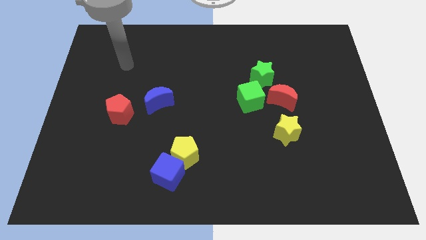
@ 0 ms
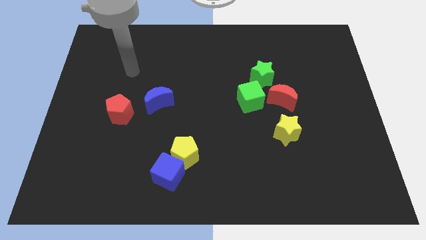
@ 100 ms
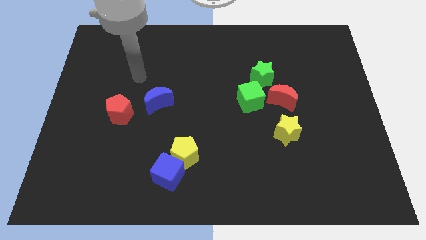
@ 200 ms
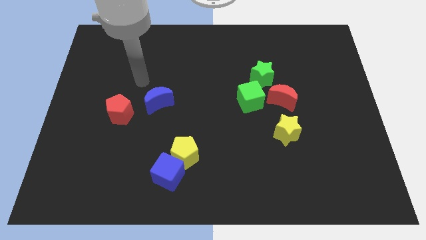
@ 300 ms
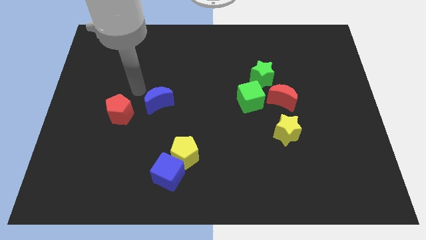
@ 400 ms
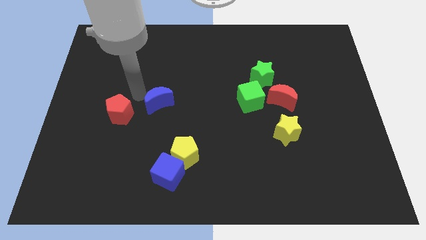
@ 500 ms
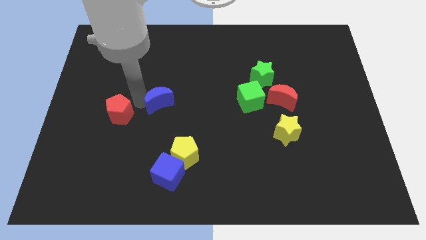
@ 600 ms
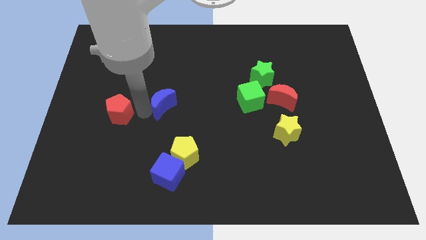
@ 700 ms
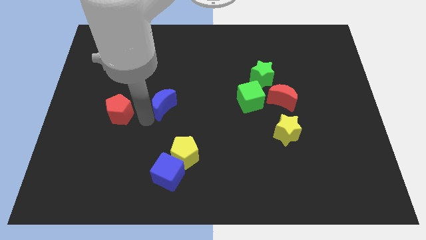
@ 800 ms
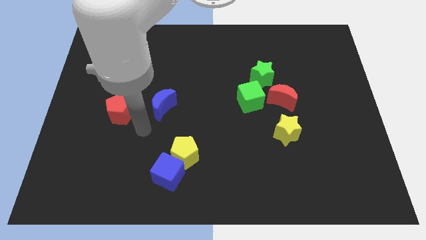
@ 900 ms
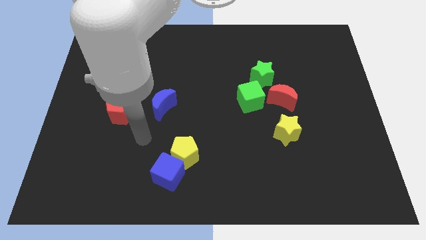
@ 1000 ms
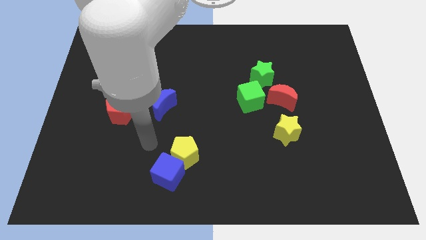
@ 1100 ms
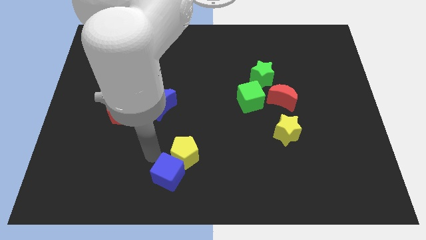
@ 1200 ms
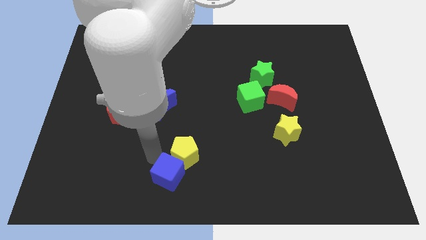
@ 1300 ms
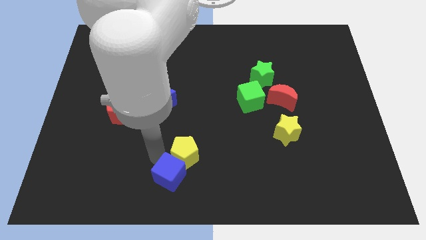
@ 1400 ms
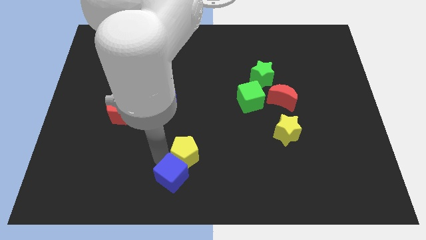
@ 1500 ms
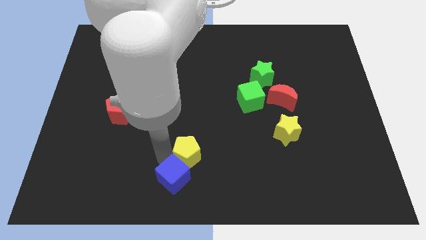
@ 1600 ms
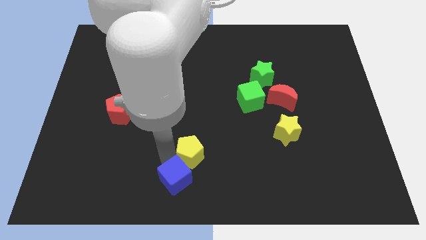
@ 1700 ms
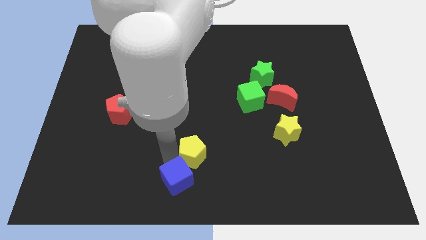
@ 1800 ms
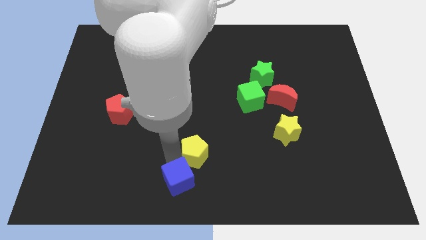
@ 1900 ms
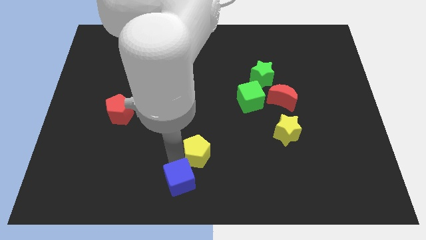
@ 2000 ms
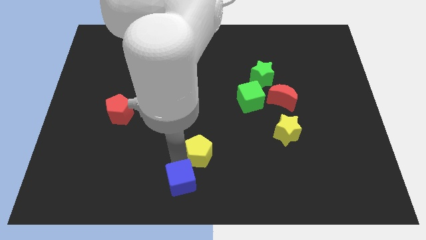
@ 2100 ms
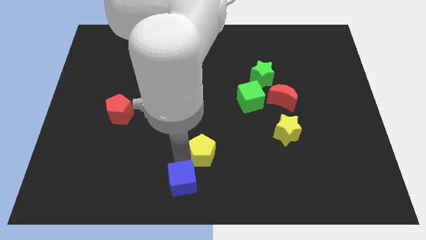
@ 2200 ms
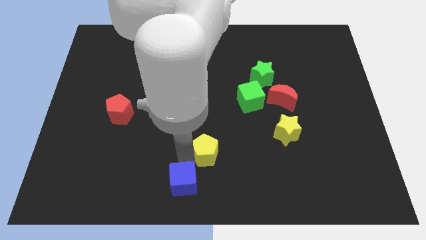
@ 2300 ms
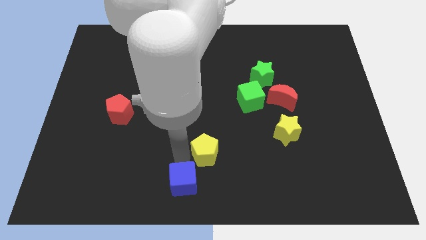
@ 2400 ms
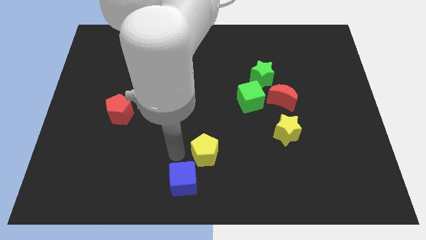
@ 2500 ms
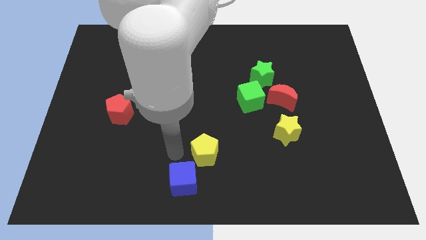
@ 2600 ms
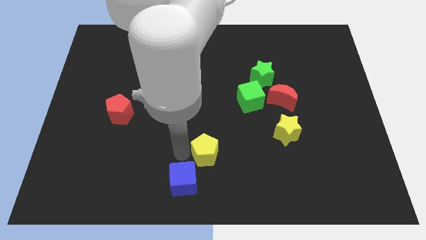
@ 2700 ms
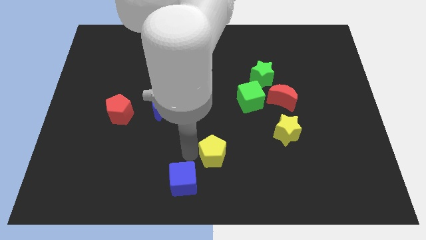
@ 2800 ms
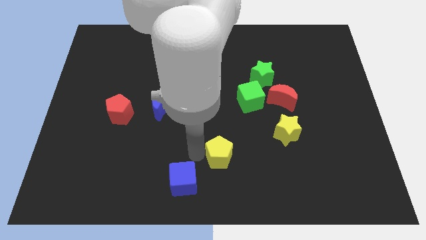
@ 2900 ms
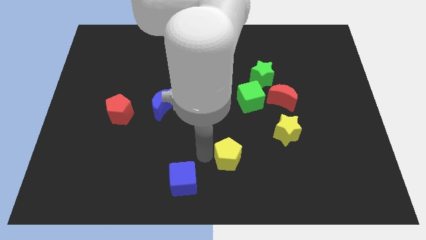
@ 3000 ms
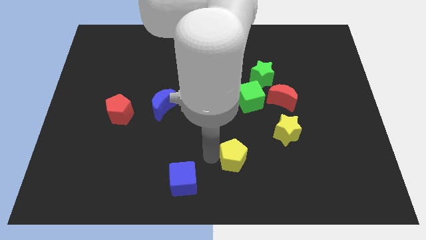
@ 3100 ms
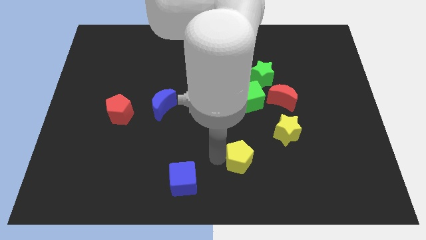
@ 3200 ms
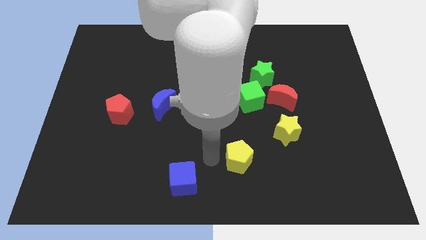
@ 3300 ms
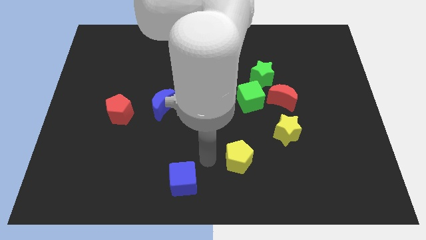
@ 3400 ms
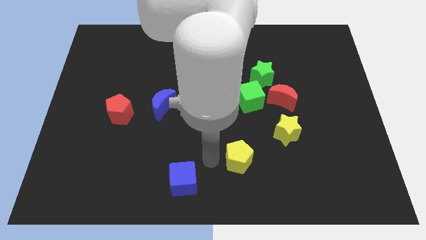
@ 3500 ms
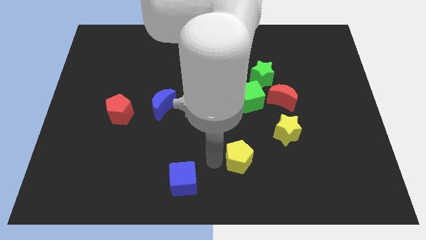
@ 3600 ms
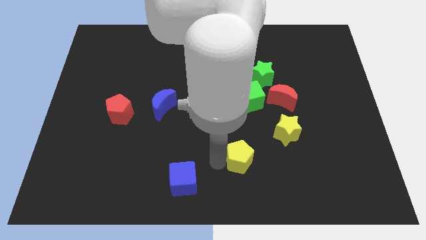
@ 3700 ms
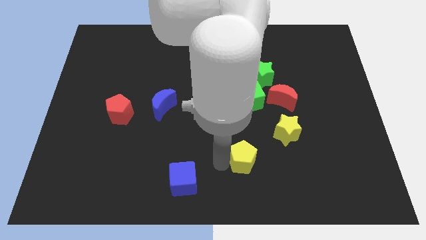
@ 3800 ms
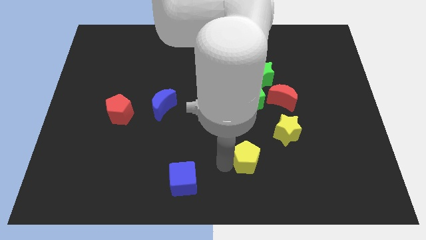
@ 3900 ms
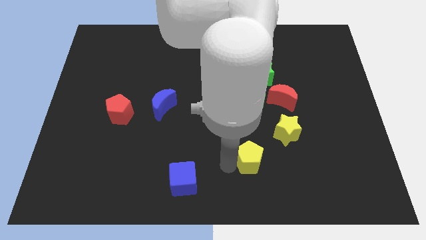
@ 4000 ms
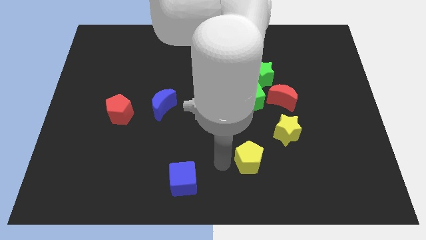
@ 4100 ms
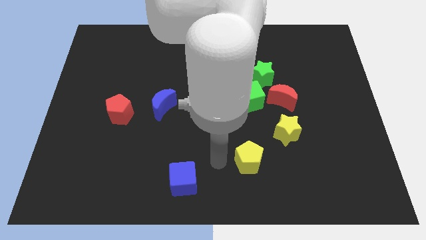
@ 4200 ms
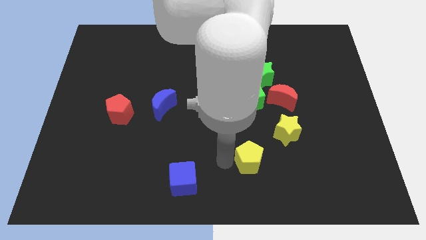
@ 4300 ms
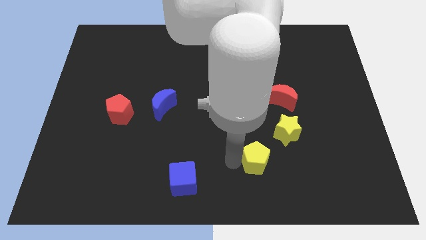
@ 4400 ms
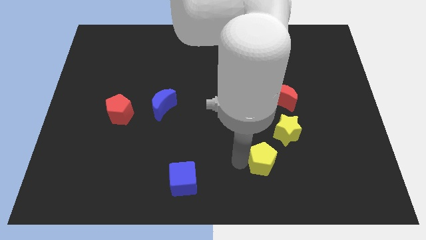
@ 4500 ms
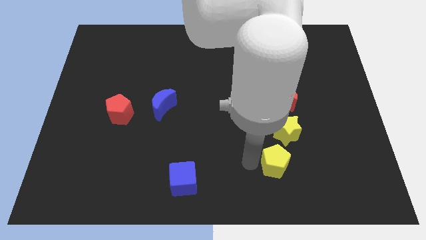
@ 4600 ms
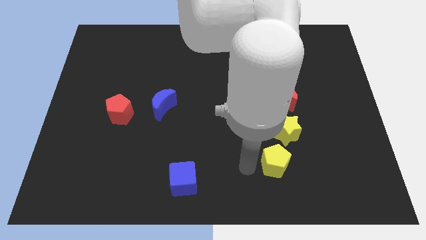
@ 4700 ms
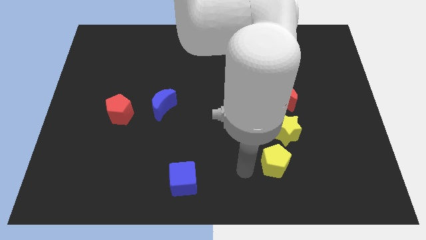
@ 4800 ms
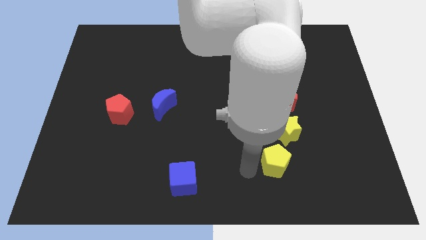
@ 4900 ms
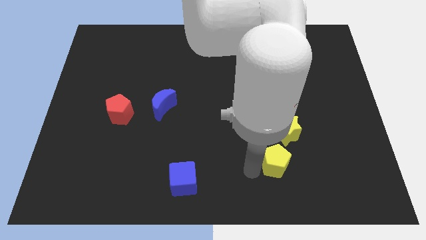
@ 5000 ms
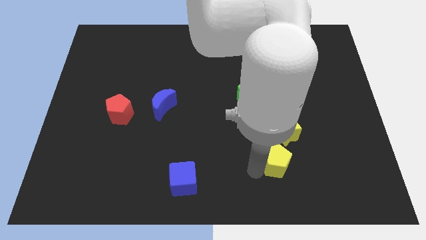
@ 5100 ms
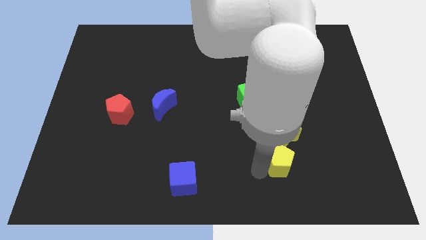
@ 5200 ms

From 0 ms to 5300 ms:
slide the yellow pentagon right

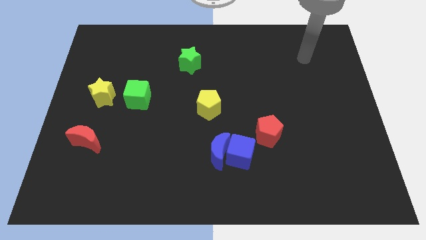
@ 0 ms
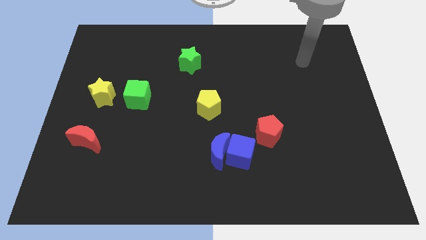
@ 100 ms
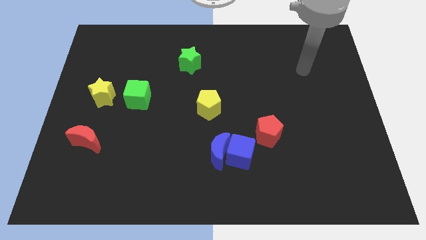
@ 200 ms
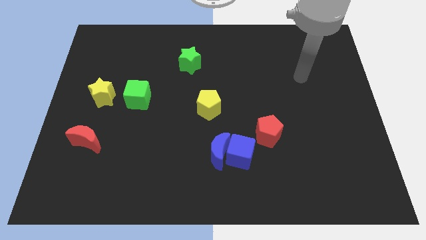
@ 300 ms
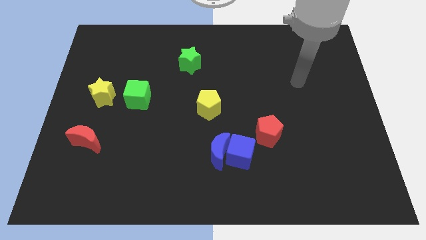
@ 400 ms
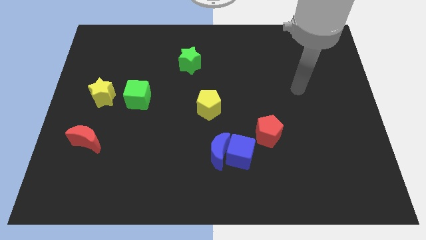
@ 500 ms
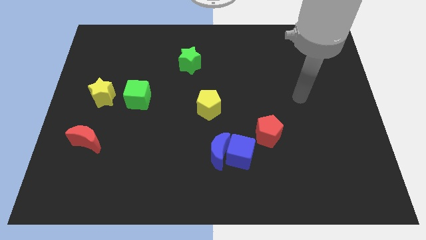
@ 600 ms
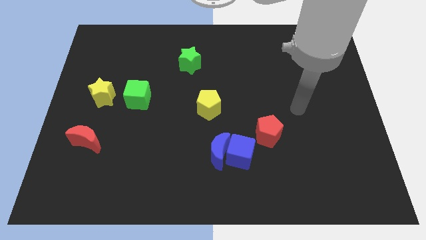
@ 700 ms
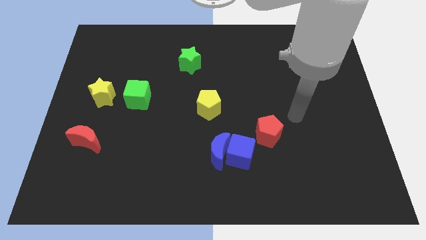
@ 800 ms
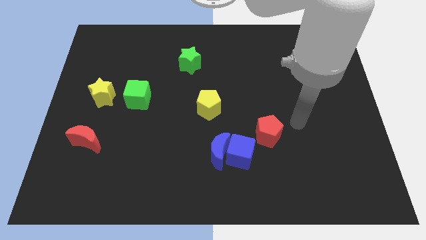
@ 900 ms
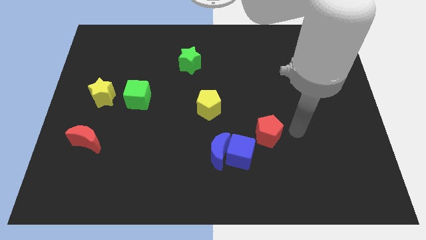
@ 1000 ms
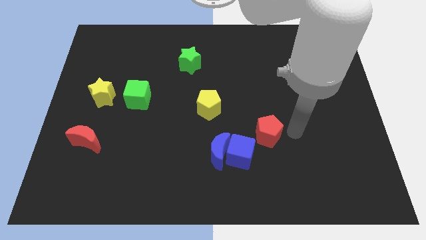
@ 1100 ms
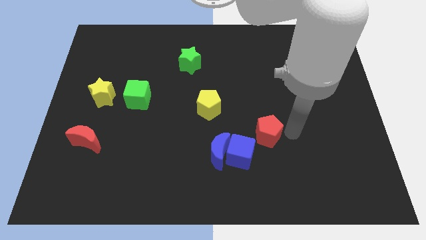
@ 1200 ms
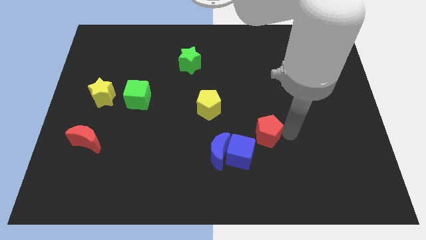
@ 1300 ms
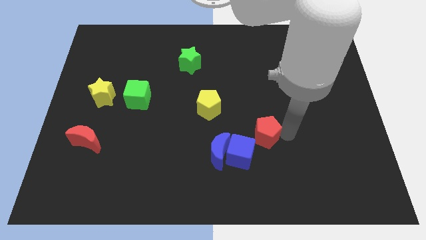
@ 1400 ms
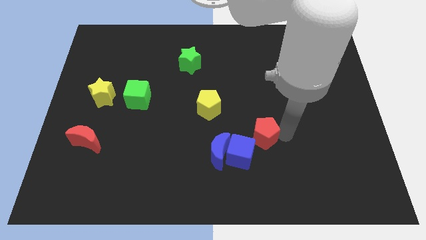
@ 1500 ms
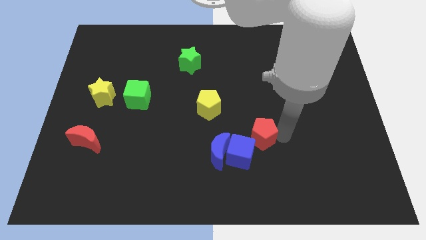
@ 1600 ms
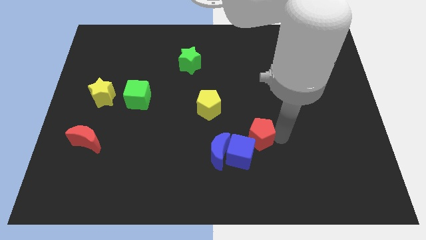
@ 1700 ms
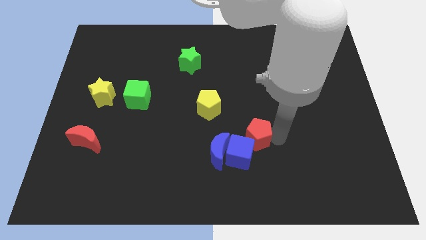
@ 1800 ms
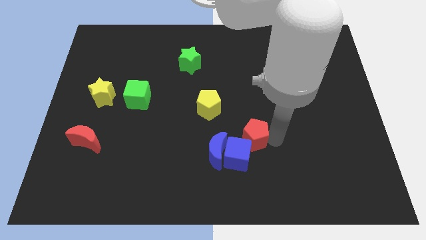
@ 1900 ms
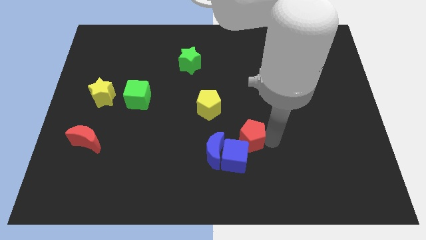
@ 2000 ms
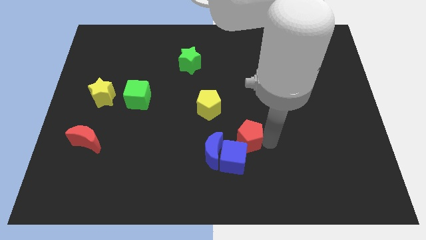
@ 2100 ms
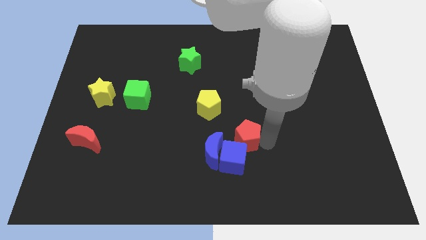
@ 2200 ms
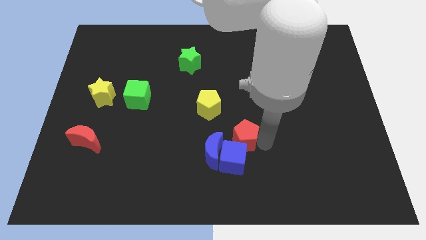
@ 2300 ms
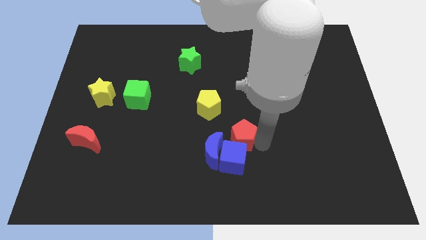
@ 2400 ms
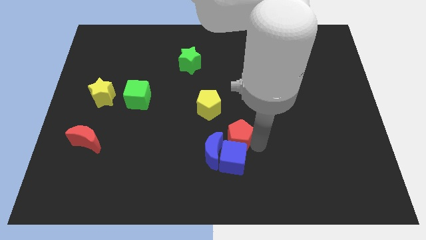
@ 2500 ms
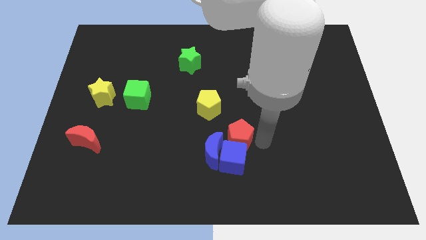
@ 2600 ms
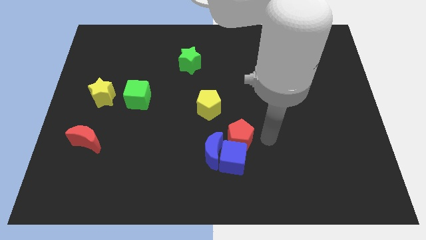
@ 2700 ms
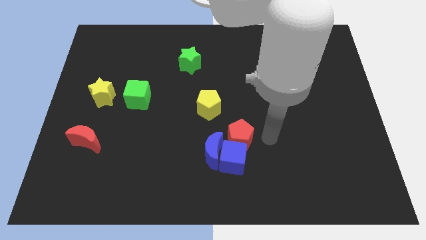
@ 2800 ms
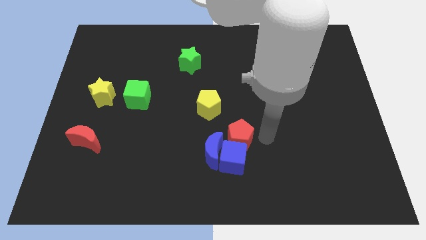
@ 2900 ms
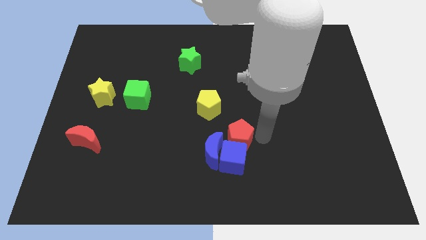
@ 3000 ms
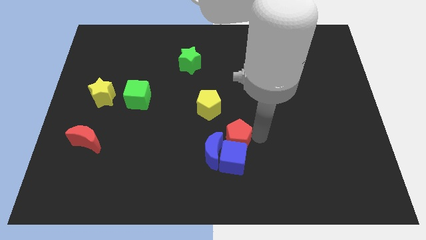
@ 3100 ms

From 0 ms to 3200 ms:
slightly move the red pentagon to the left
